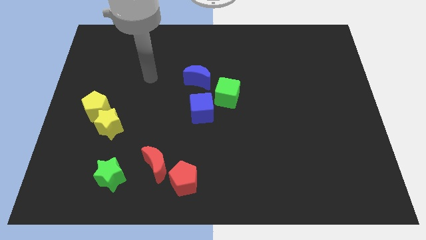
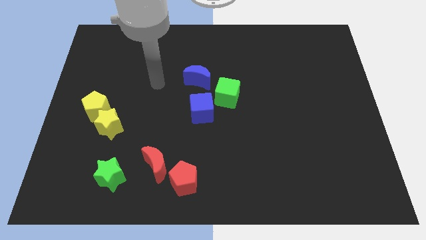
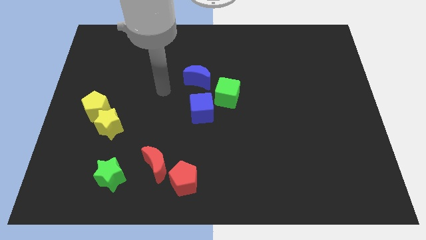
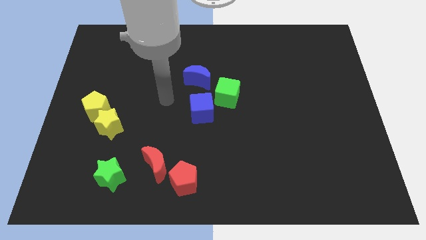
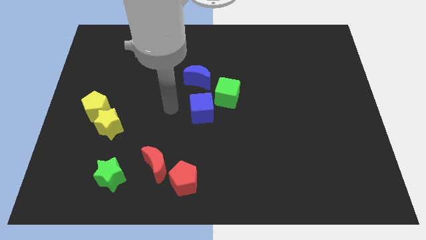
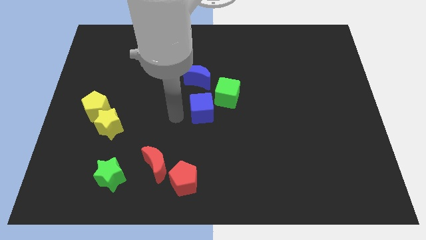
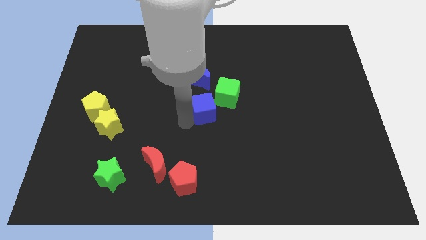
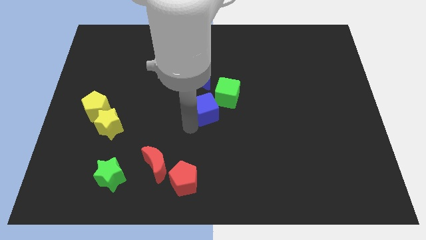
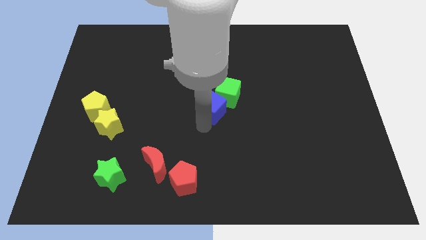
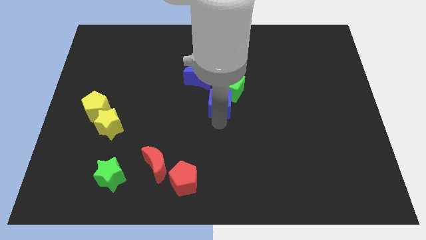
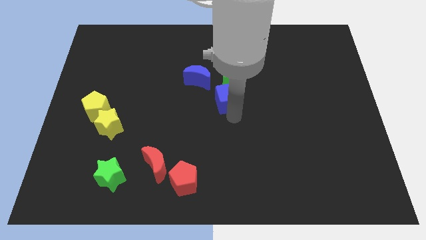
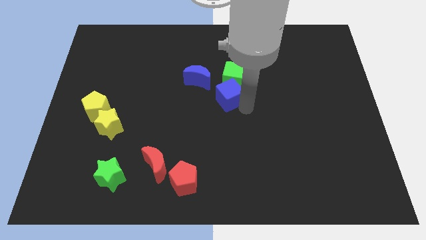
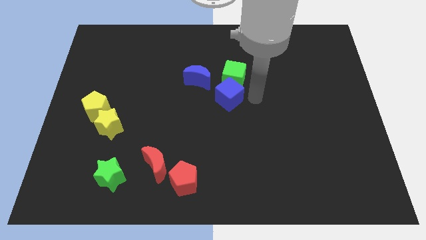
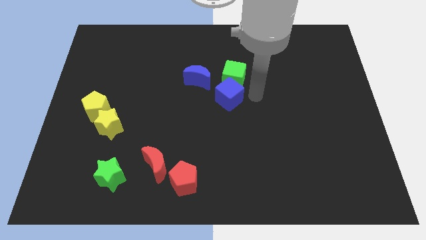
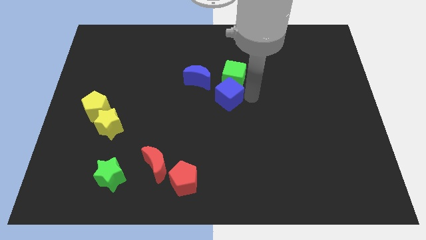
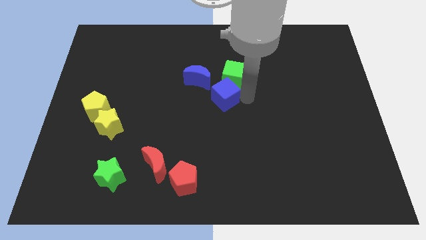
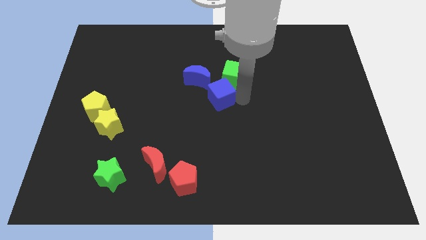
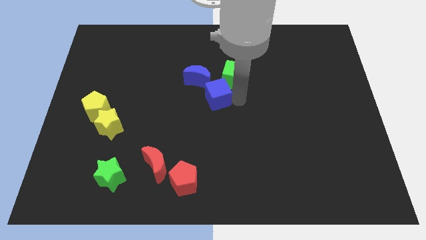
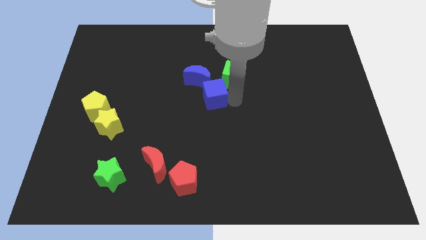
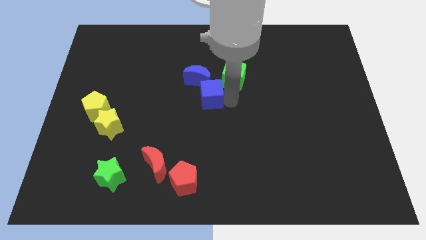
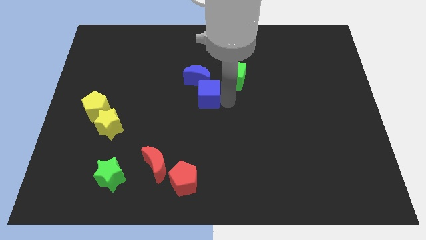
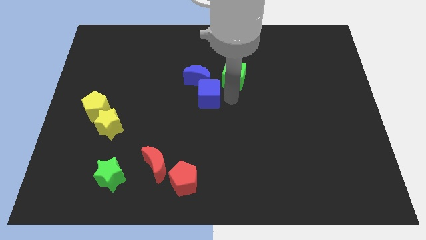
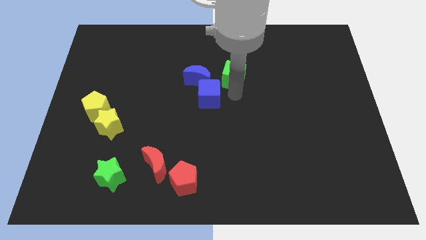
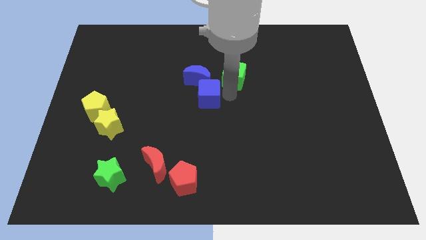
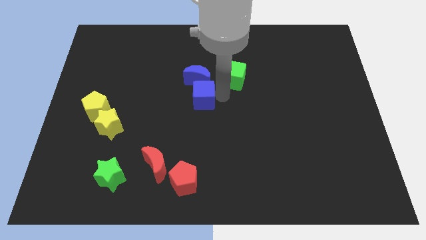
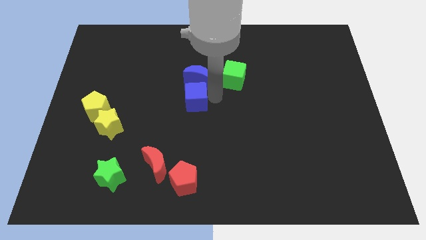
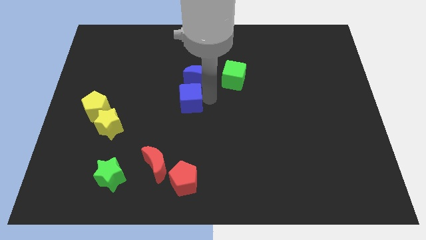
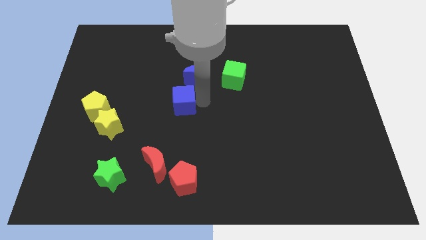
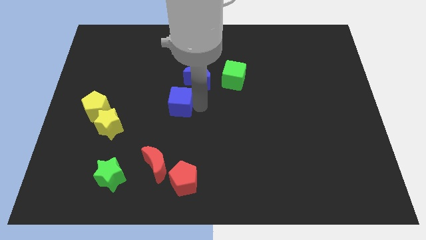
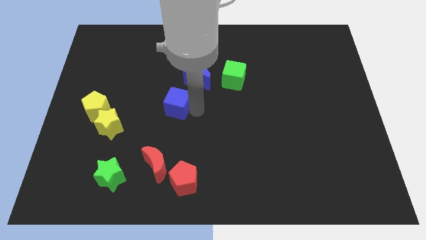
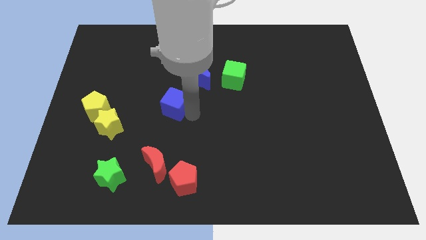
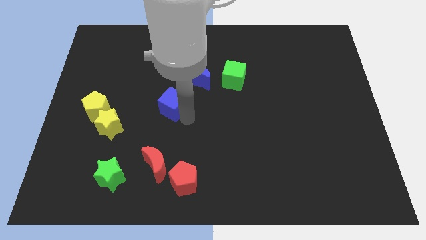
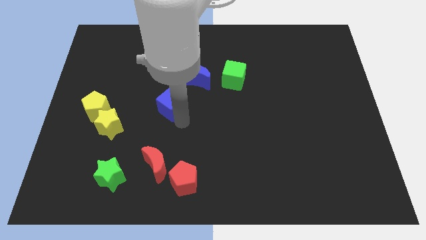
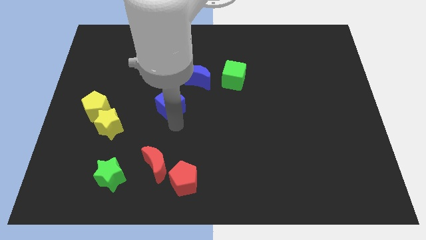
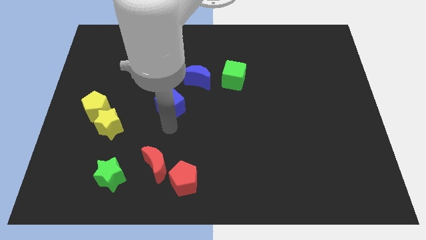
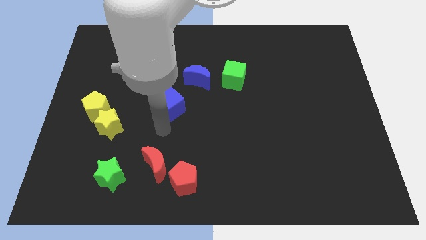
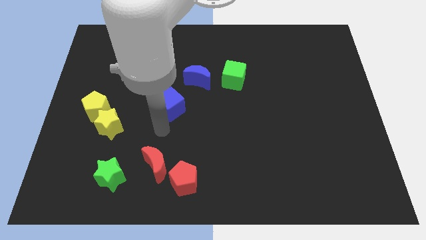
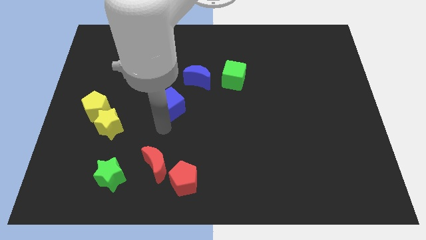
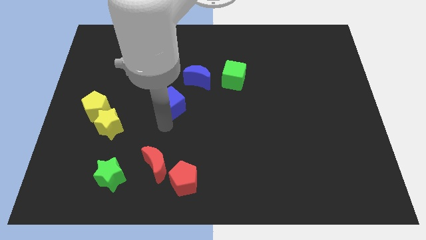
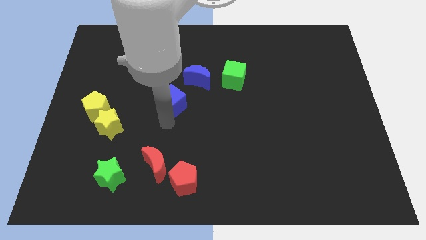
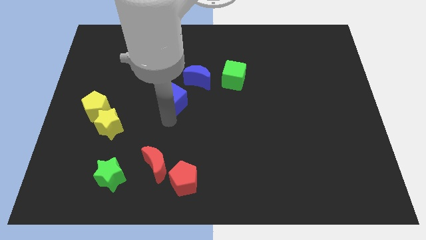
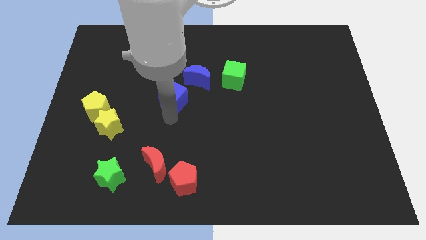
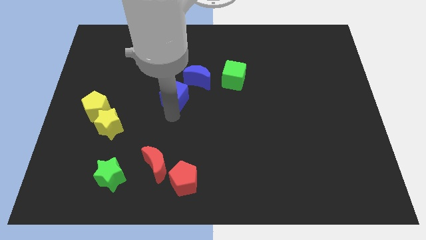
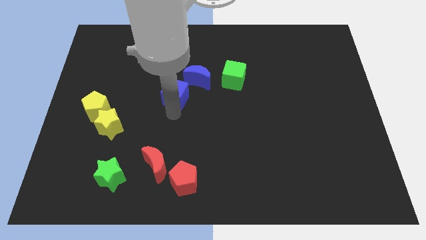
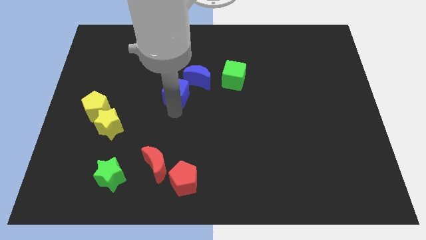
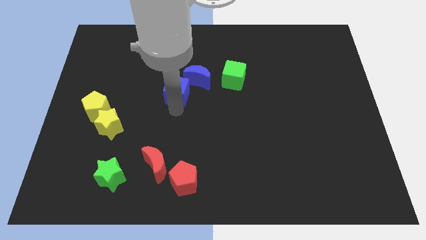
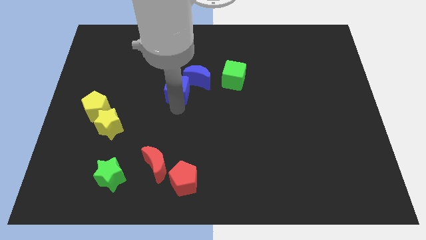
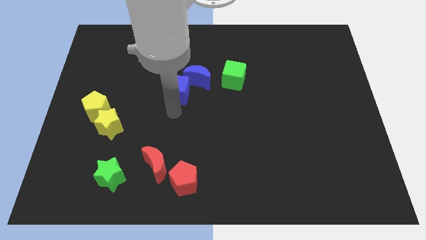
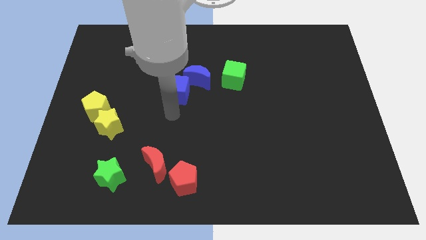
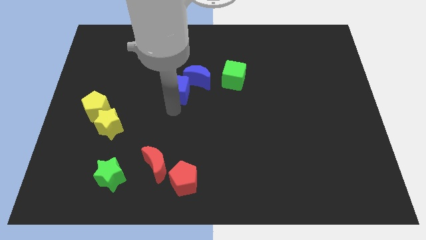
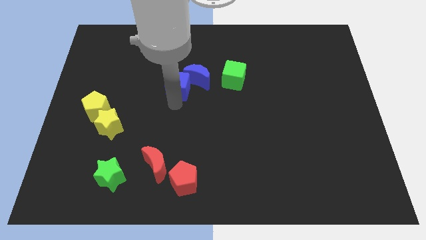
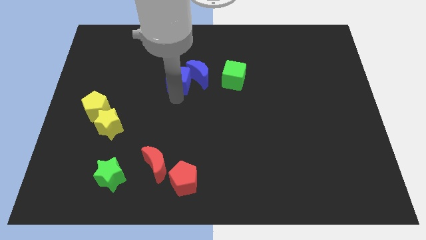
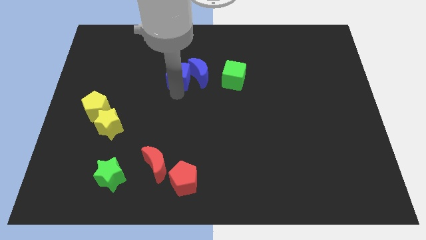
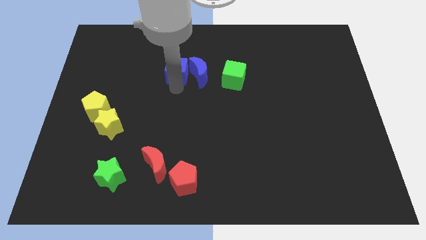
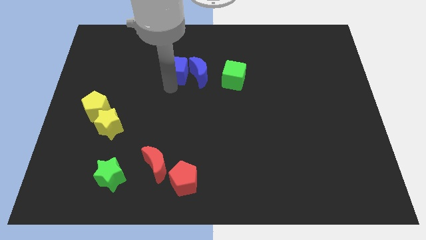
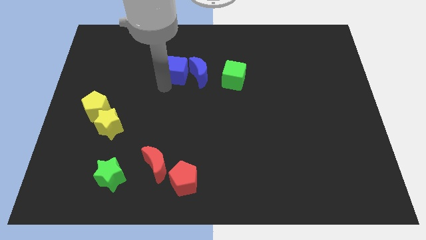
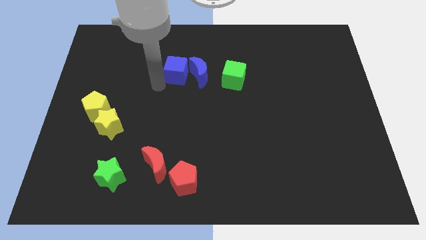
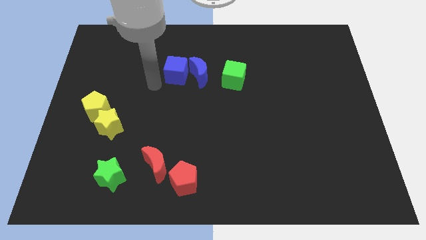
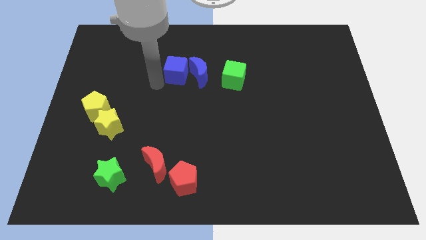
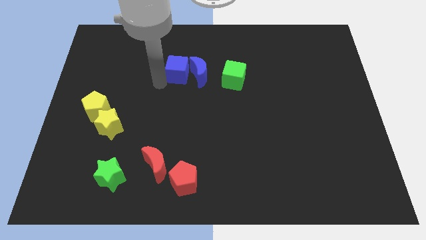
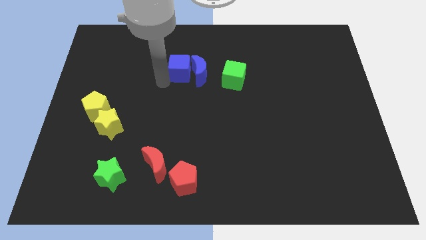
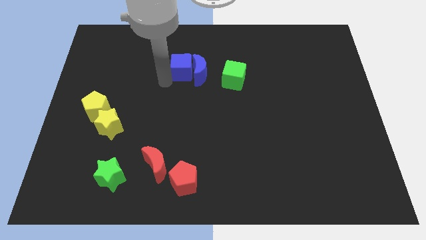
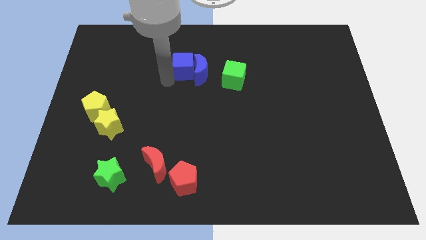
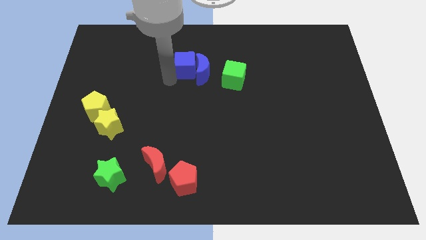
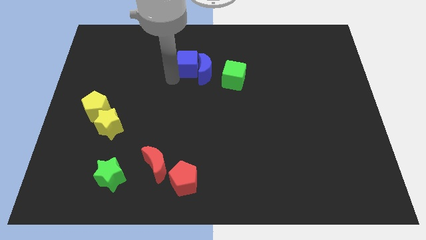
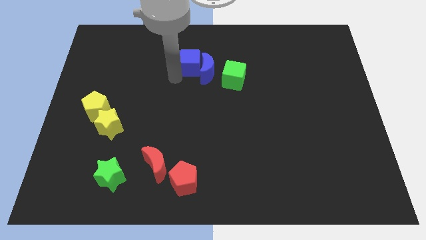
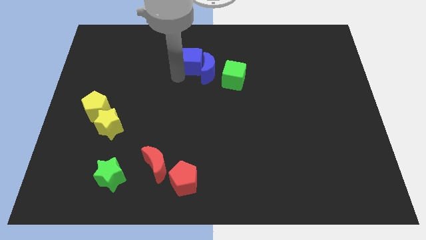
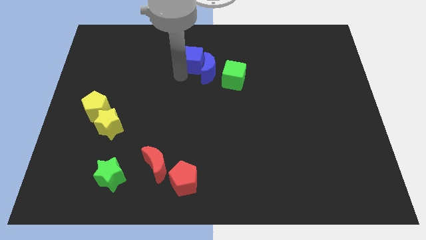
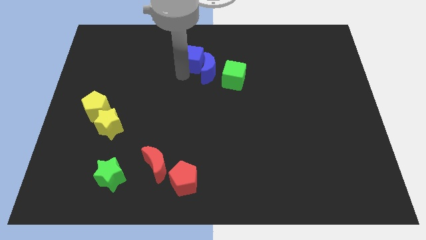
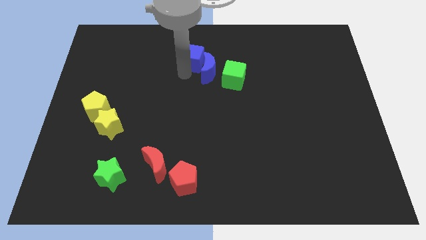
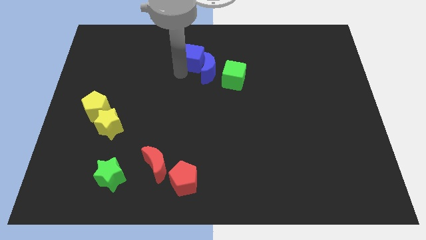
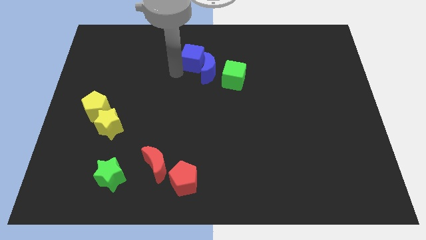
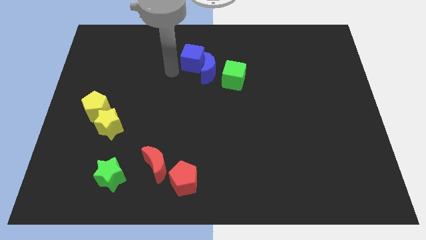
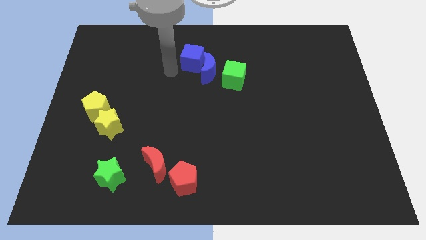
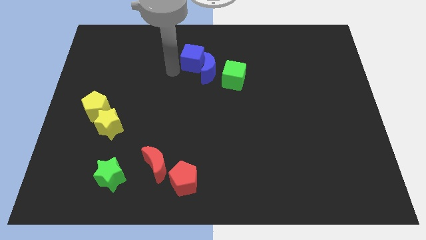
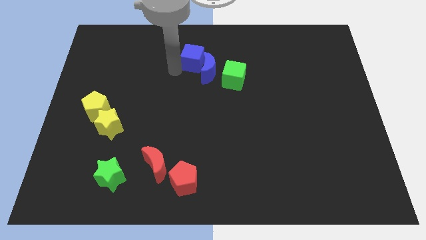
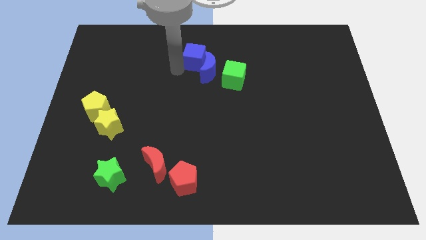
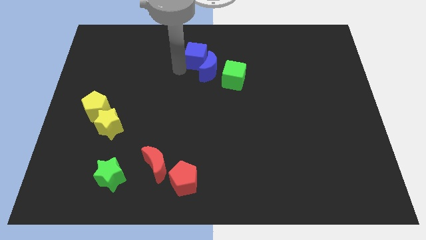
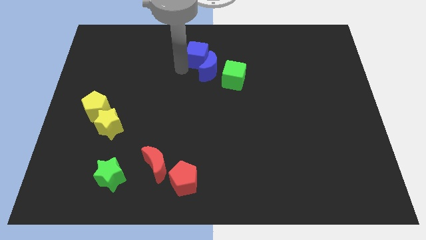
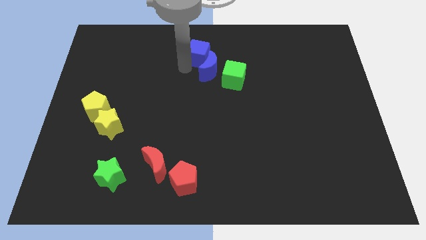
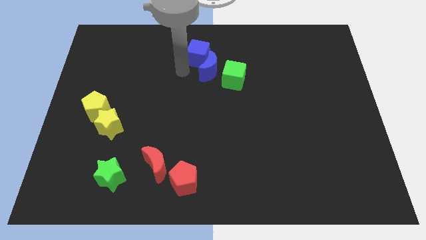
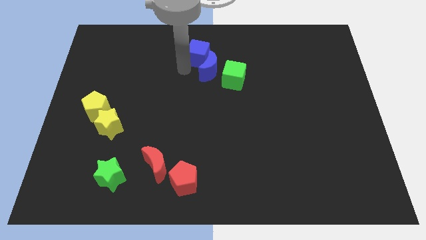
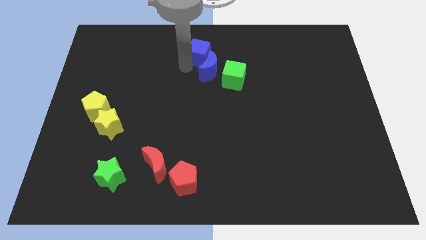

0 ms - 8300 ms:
move the blue cube to the towards your base
